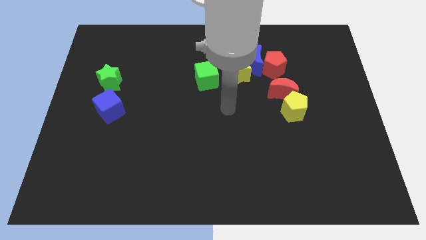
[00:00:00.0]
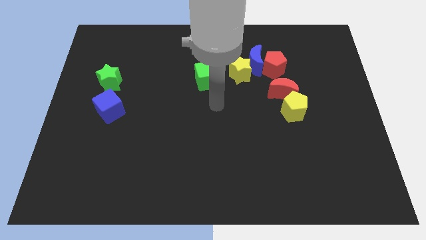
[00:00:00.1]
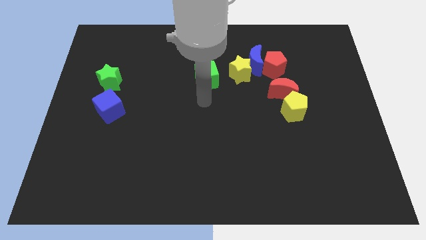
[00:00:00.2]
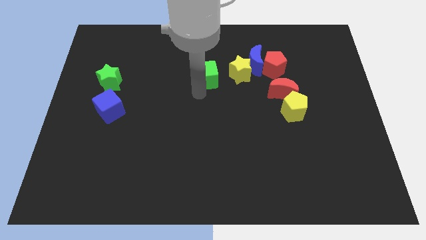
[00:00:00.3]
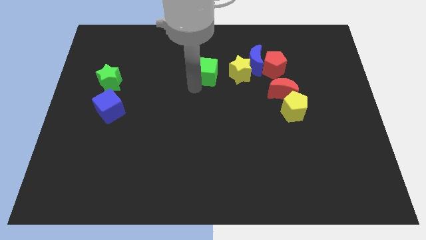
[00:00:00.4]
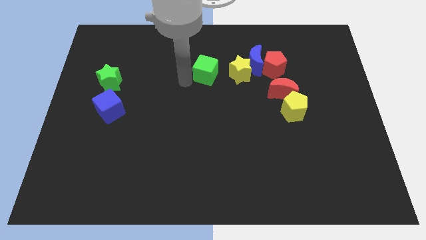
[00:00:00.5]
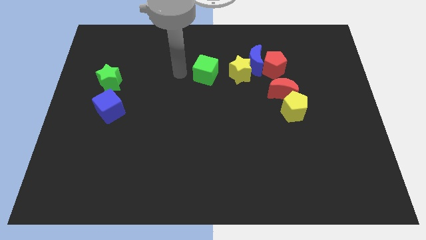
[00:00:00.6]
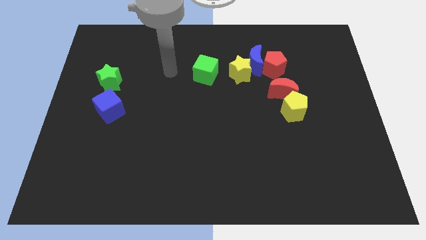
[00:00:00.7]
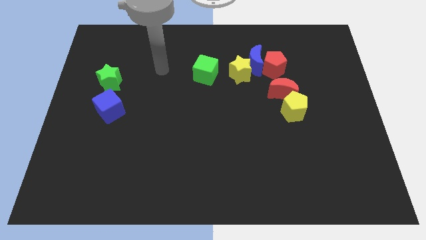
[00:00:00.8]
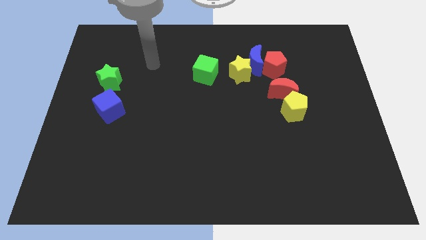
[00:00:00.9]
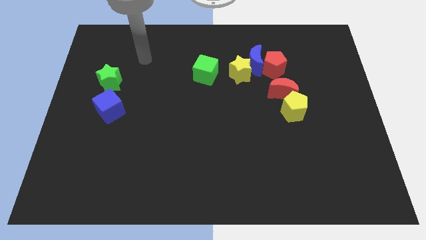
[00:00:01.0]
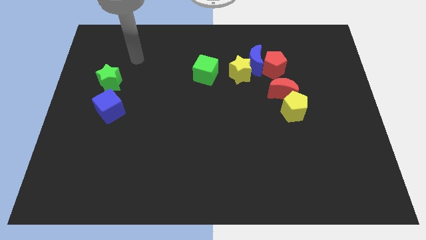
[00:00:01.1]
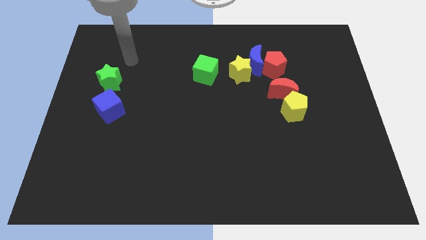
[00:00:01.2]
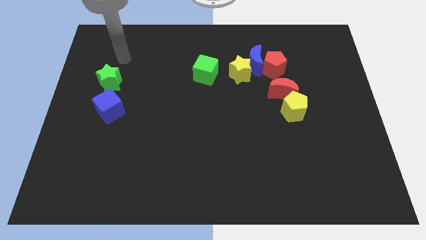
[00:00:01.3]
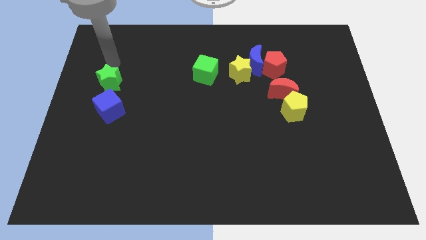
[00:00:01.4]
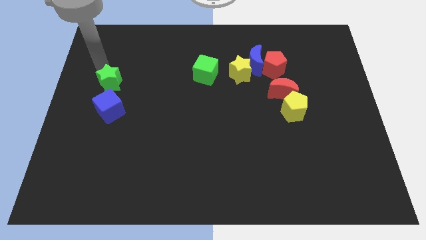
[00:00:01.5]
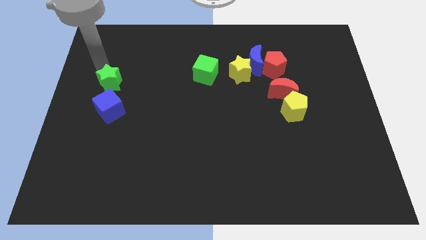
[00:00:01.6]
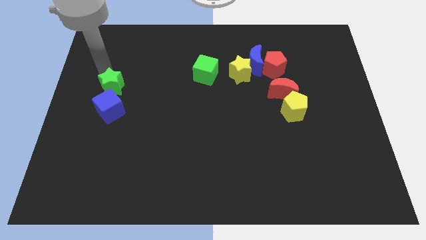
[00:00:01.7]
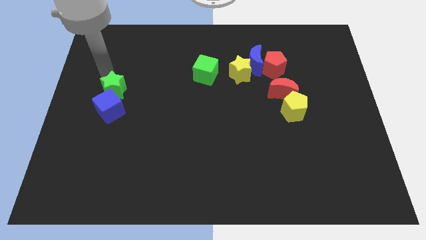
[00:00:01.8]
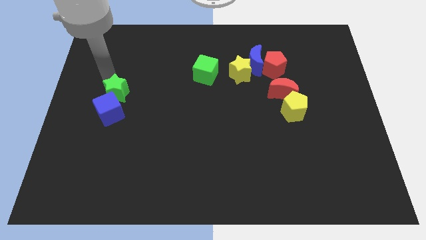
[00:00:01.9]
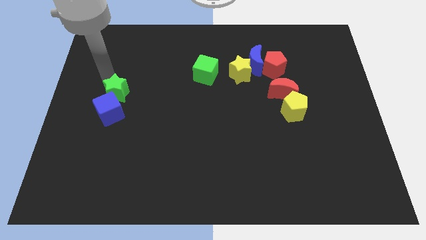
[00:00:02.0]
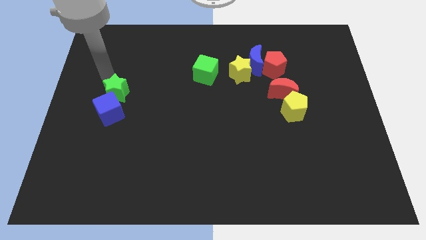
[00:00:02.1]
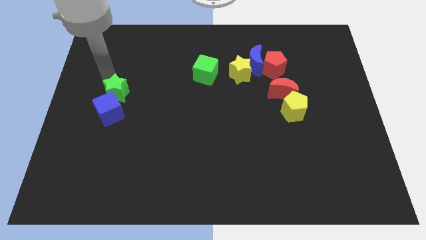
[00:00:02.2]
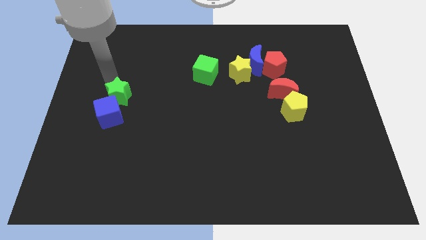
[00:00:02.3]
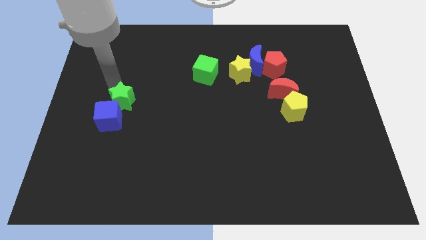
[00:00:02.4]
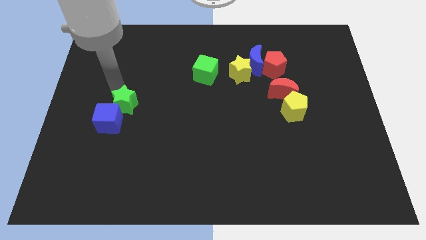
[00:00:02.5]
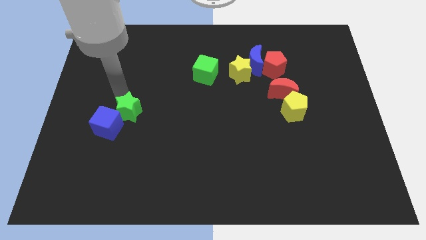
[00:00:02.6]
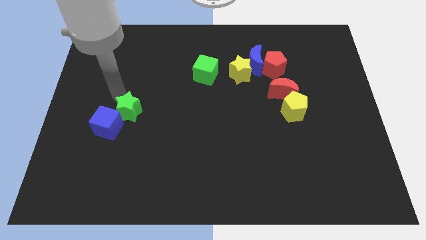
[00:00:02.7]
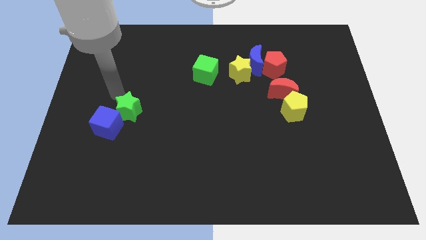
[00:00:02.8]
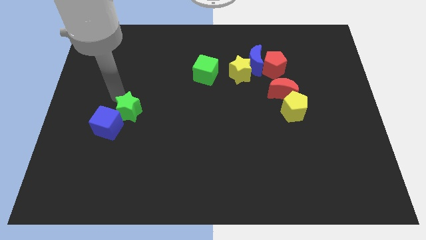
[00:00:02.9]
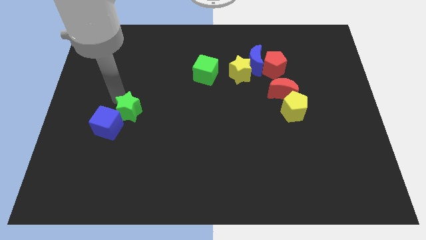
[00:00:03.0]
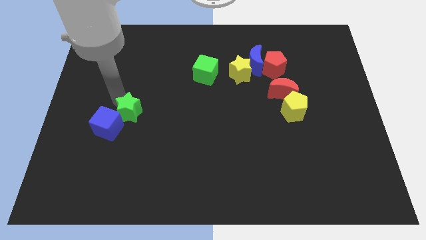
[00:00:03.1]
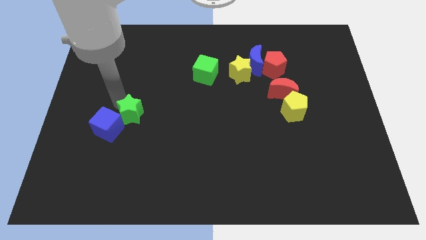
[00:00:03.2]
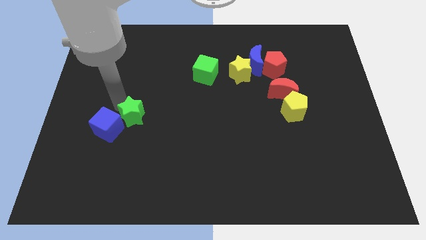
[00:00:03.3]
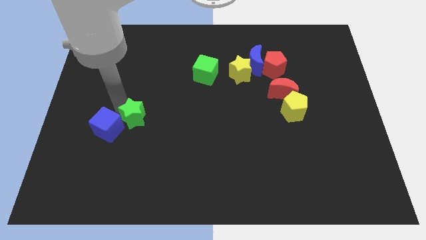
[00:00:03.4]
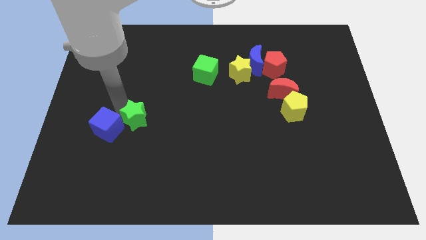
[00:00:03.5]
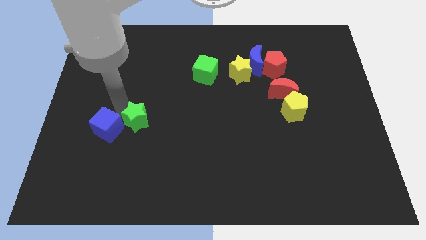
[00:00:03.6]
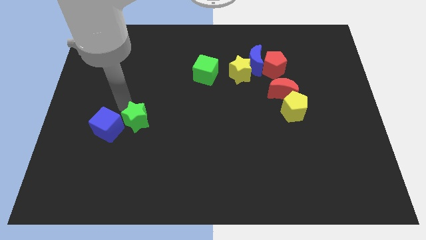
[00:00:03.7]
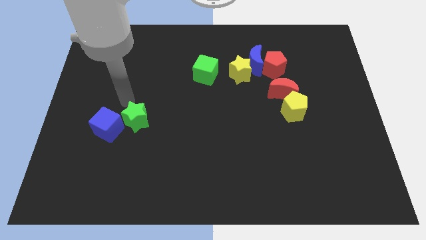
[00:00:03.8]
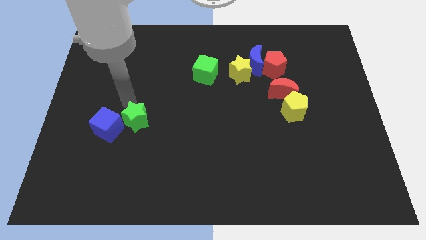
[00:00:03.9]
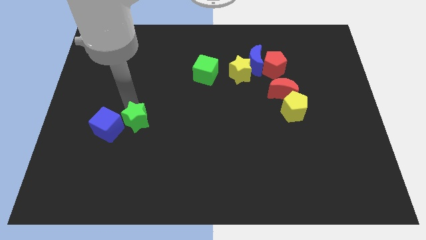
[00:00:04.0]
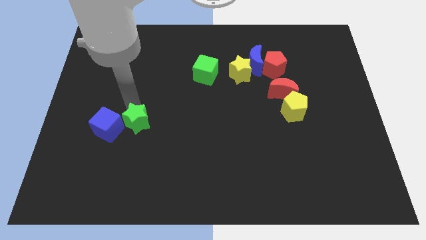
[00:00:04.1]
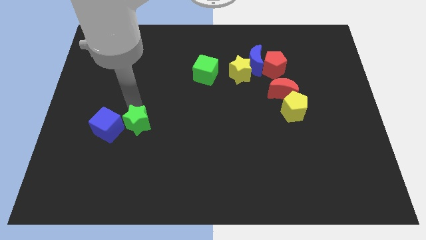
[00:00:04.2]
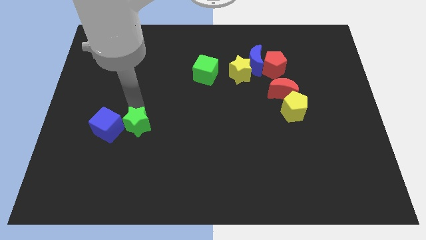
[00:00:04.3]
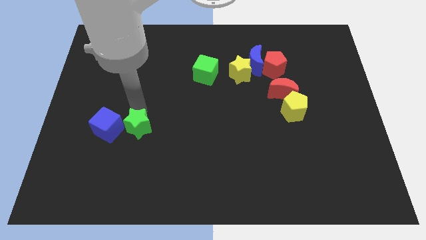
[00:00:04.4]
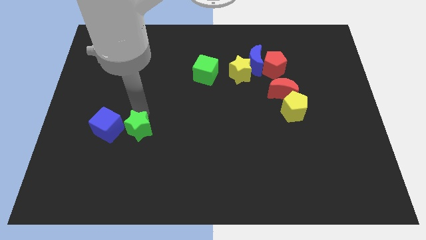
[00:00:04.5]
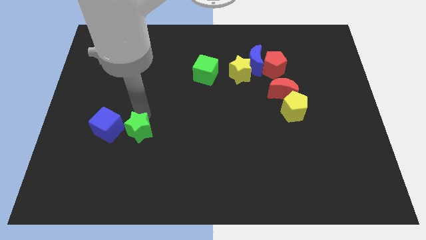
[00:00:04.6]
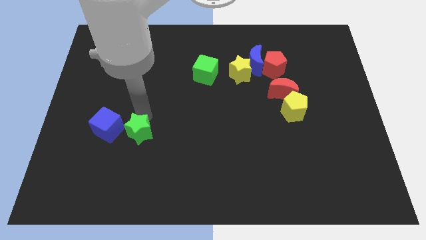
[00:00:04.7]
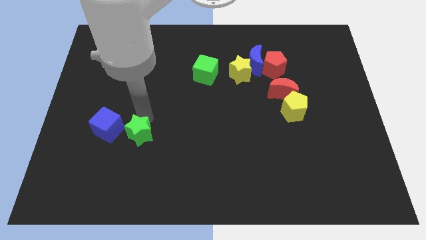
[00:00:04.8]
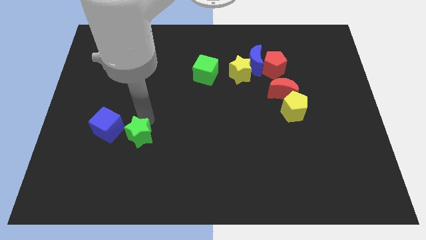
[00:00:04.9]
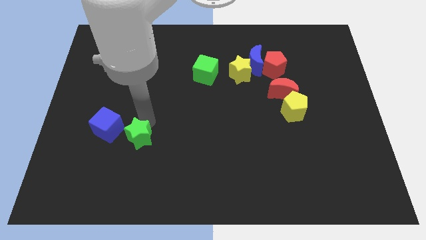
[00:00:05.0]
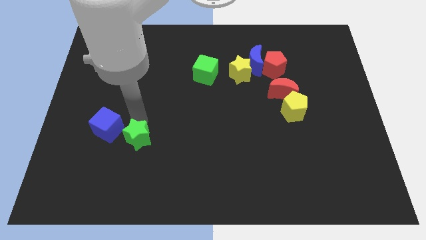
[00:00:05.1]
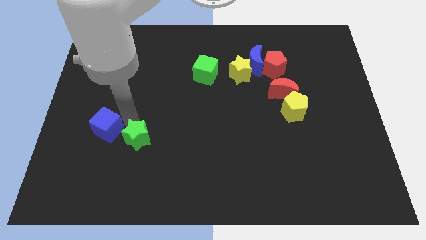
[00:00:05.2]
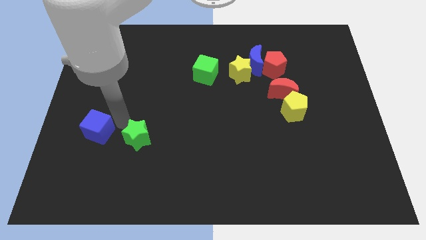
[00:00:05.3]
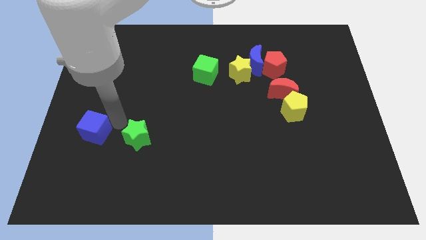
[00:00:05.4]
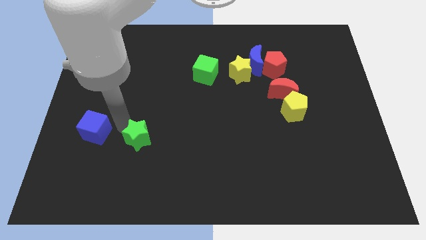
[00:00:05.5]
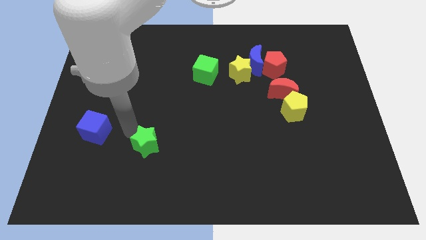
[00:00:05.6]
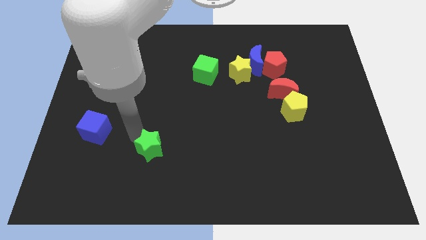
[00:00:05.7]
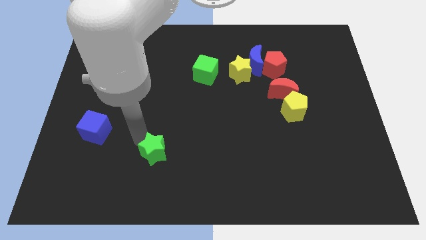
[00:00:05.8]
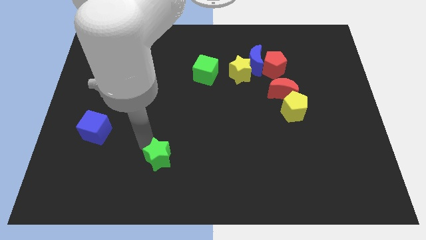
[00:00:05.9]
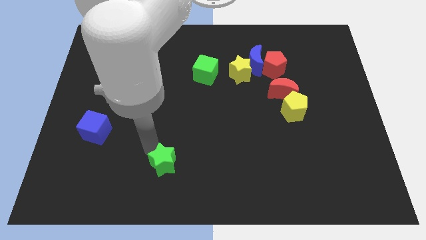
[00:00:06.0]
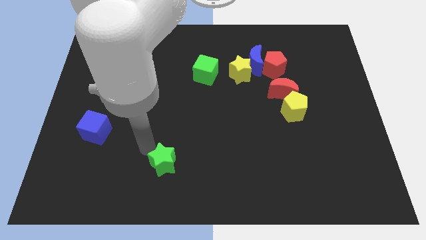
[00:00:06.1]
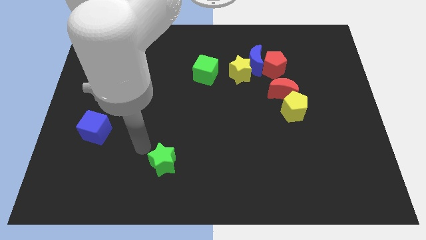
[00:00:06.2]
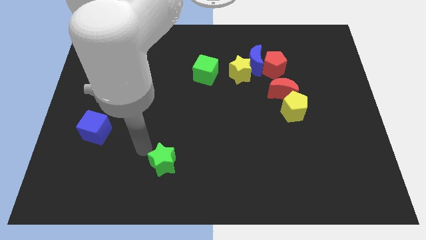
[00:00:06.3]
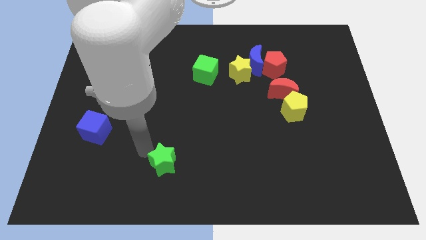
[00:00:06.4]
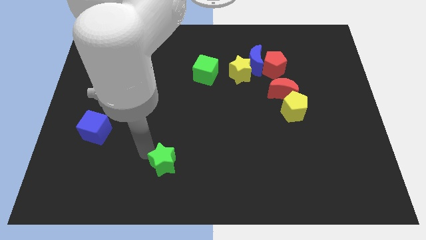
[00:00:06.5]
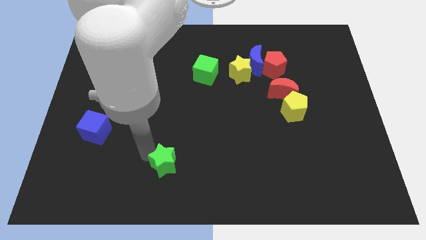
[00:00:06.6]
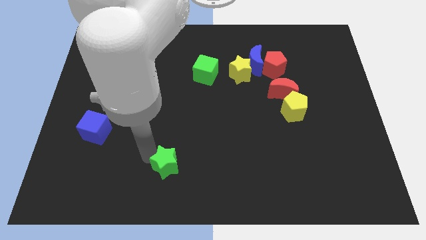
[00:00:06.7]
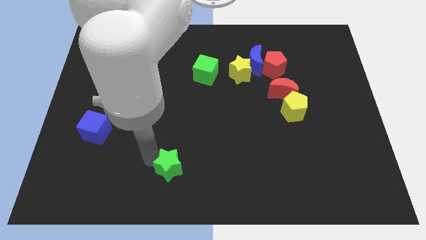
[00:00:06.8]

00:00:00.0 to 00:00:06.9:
slide the green star to the bottom side

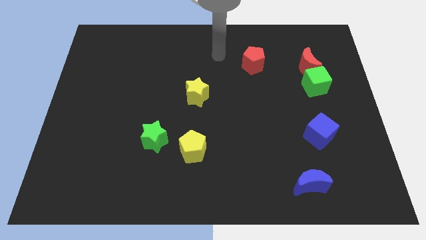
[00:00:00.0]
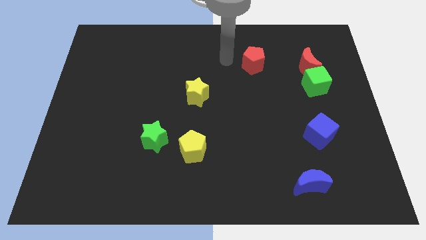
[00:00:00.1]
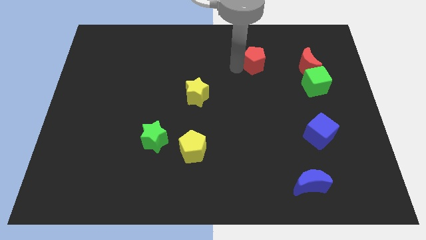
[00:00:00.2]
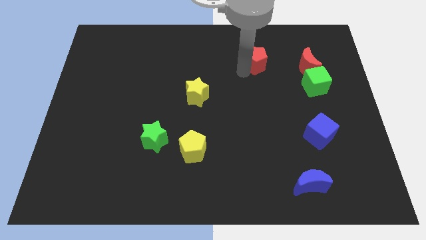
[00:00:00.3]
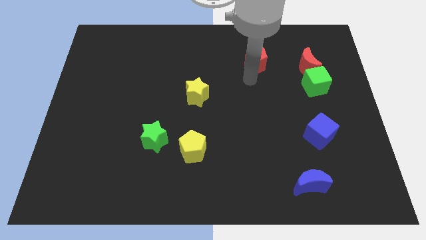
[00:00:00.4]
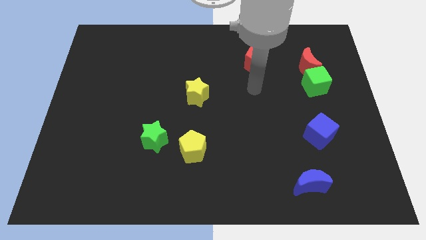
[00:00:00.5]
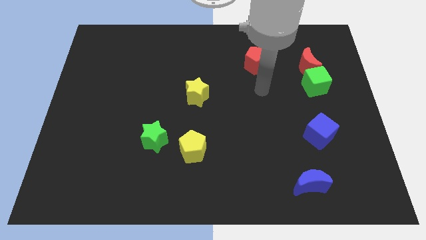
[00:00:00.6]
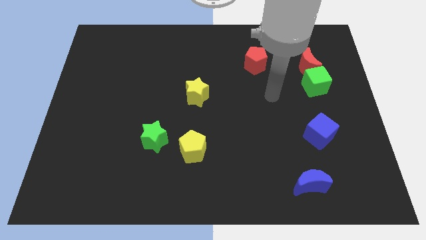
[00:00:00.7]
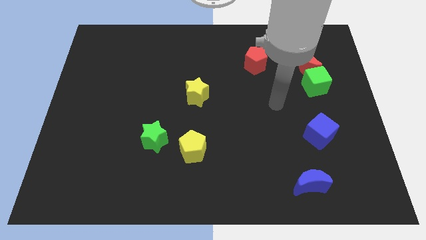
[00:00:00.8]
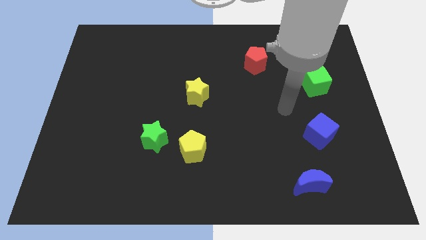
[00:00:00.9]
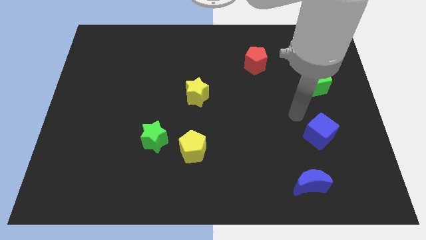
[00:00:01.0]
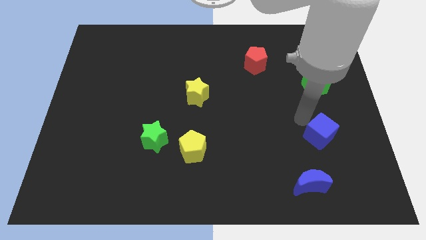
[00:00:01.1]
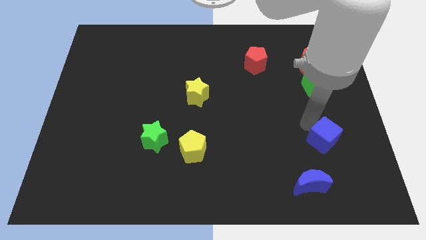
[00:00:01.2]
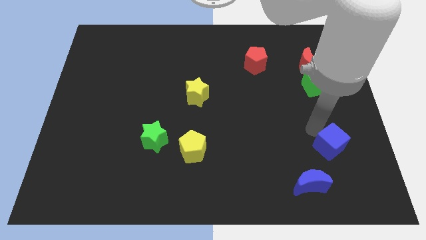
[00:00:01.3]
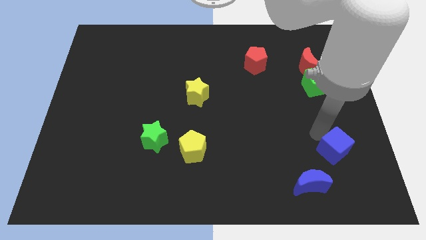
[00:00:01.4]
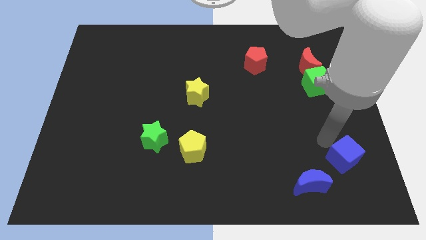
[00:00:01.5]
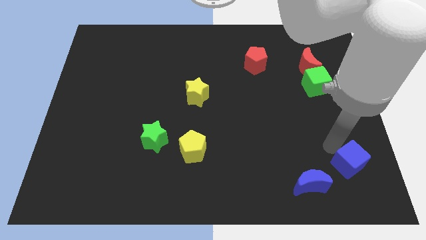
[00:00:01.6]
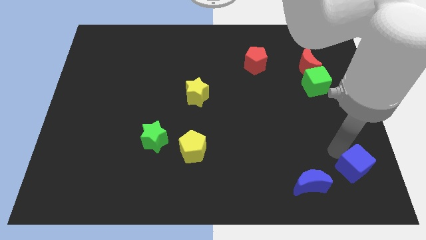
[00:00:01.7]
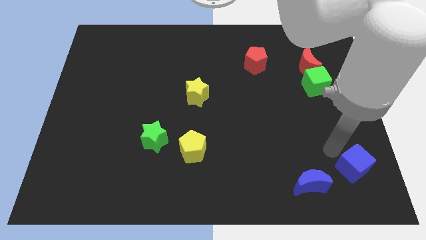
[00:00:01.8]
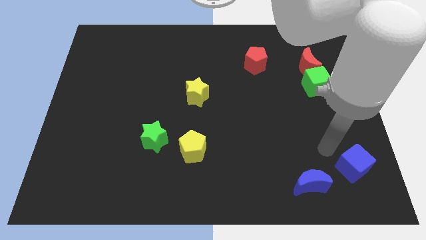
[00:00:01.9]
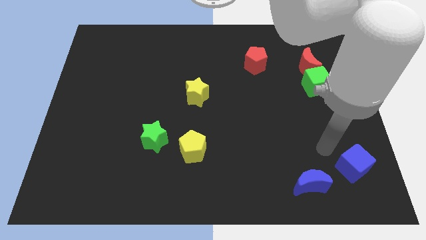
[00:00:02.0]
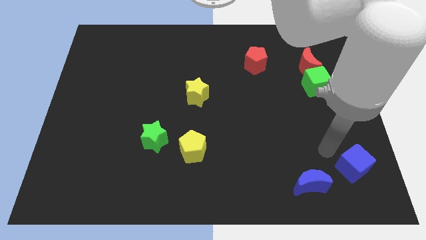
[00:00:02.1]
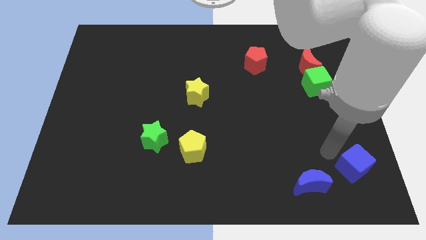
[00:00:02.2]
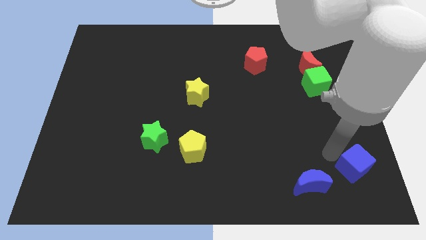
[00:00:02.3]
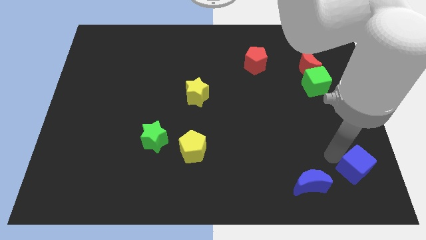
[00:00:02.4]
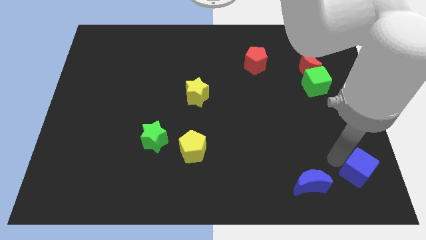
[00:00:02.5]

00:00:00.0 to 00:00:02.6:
put the blue cube to the bottom right
